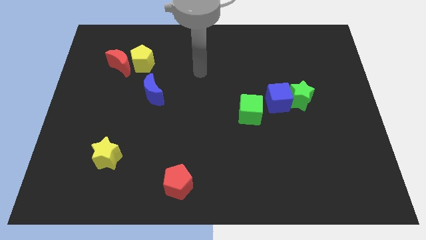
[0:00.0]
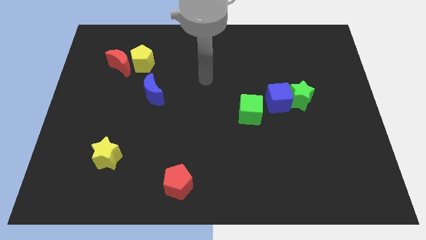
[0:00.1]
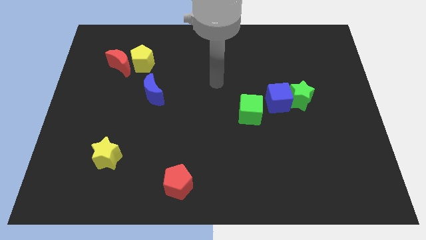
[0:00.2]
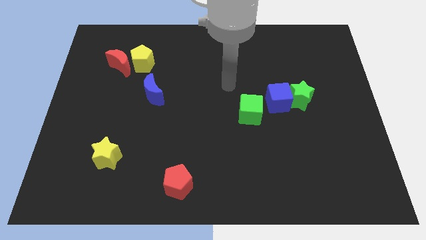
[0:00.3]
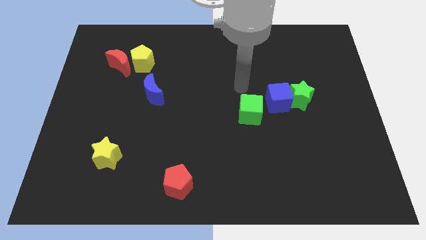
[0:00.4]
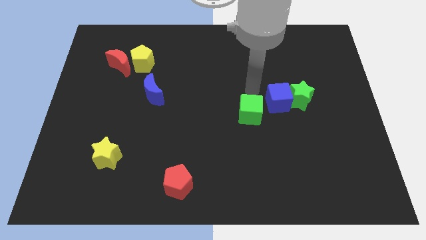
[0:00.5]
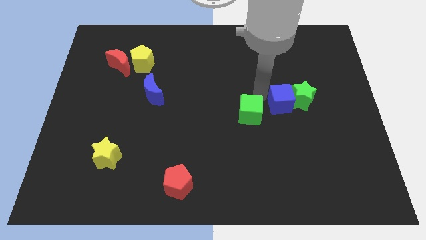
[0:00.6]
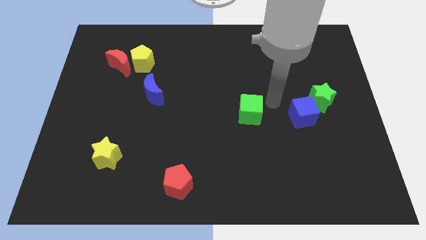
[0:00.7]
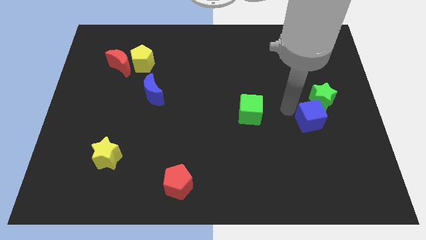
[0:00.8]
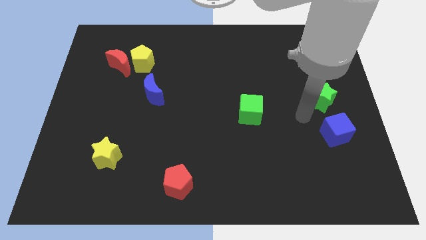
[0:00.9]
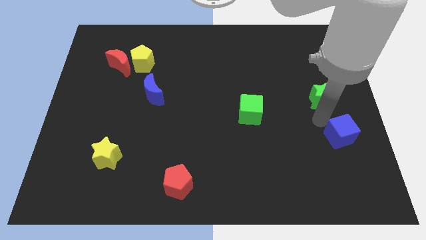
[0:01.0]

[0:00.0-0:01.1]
move the green star away from the blue cube

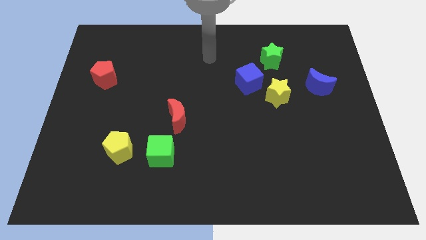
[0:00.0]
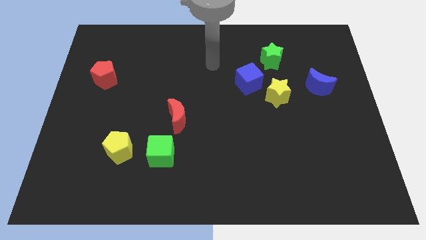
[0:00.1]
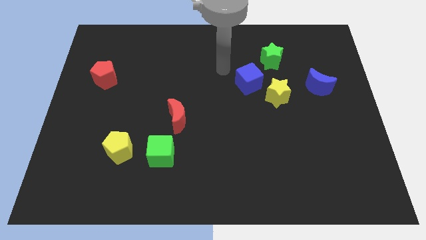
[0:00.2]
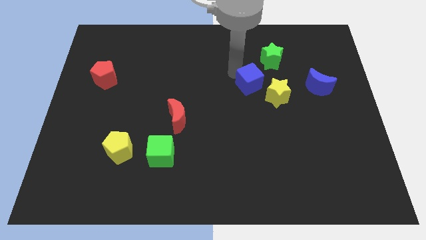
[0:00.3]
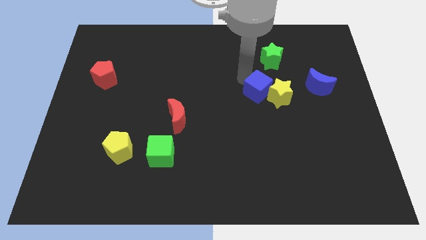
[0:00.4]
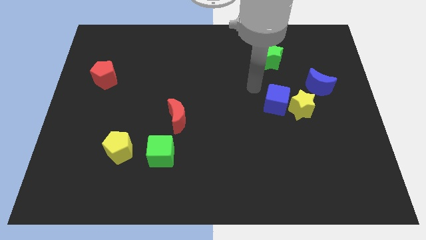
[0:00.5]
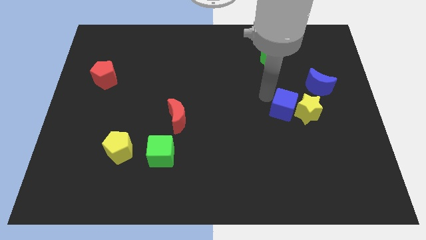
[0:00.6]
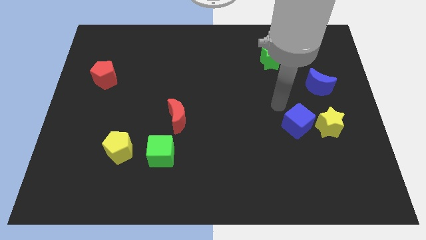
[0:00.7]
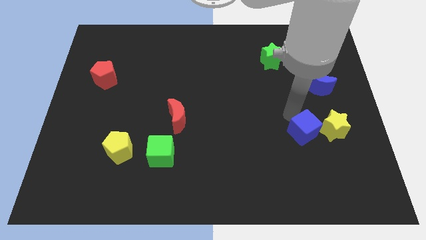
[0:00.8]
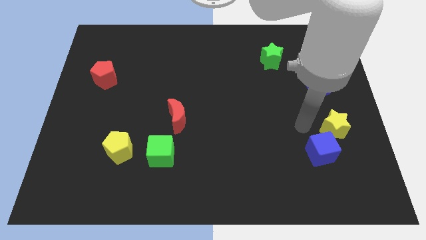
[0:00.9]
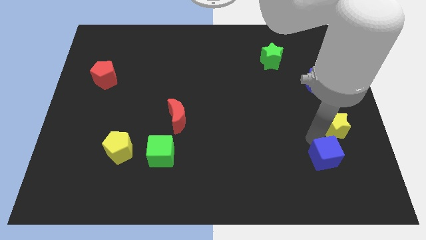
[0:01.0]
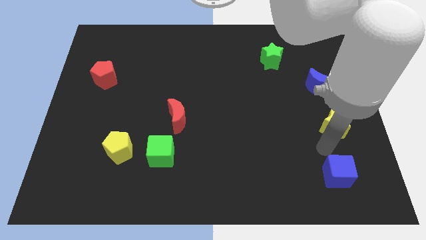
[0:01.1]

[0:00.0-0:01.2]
move the yellow star away from the blue cube

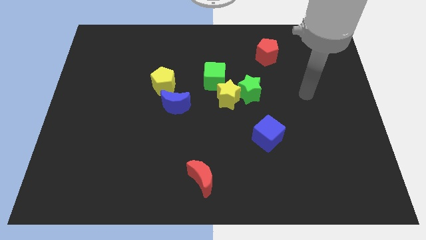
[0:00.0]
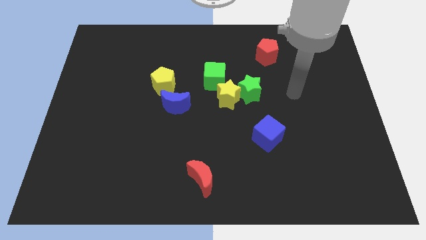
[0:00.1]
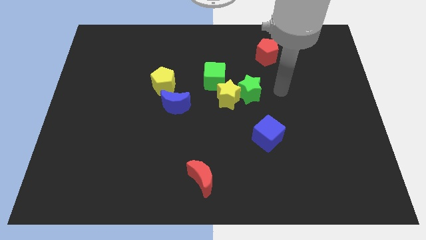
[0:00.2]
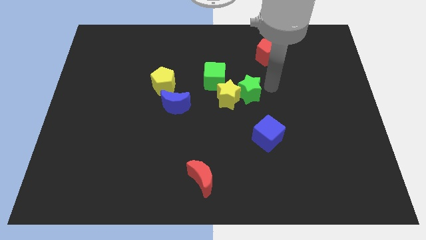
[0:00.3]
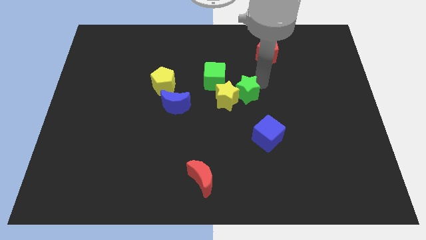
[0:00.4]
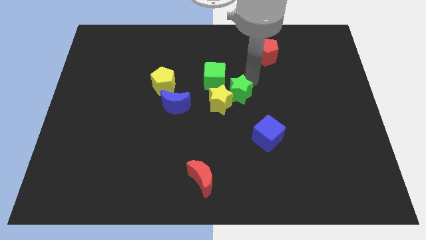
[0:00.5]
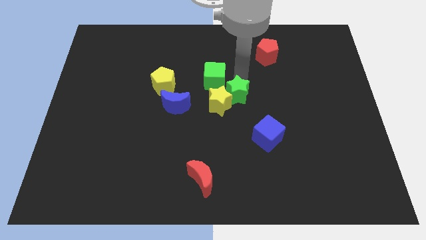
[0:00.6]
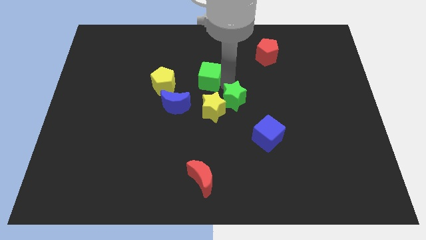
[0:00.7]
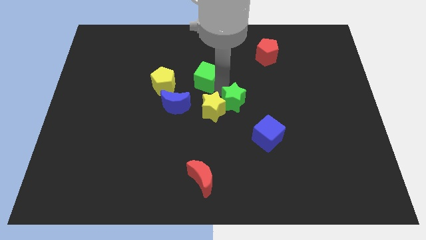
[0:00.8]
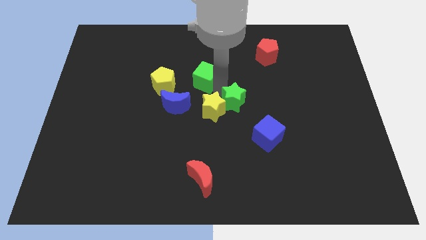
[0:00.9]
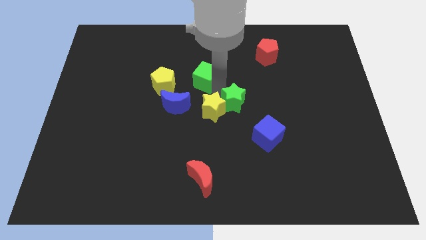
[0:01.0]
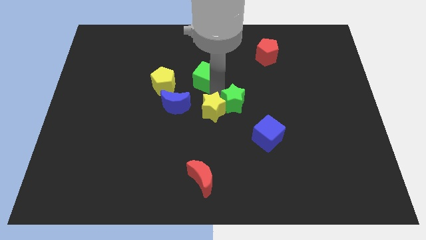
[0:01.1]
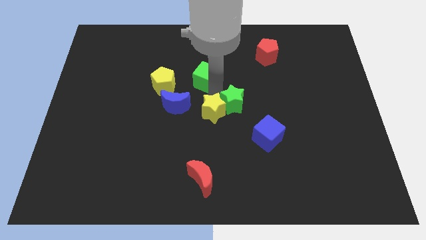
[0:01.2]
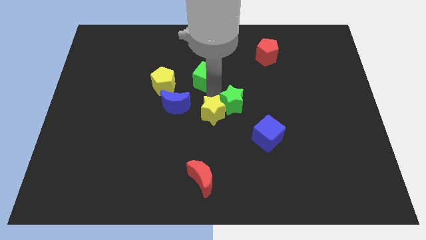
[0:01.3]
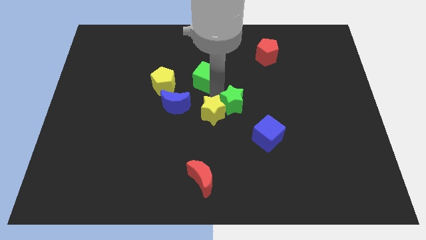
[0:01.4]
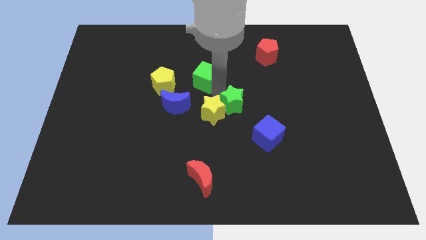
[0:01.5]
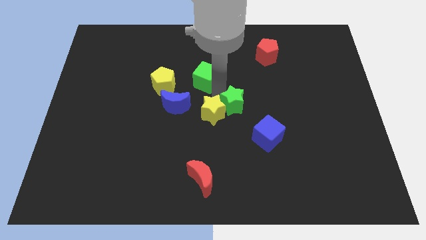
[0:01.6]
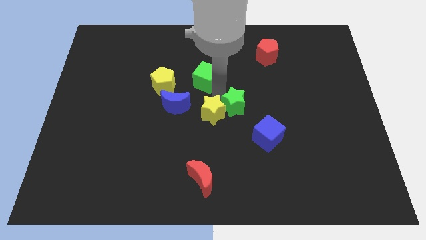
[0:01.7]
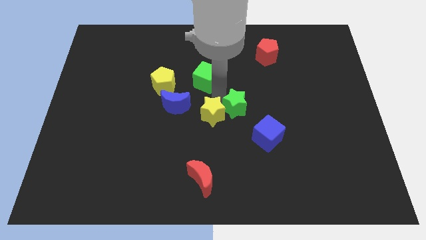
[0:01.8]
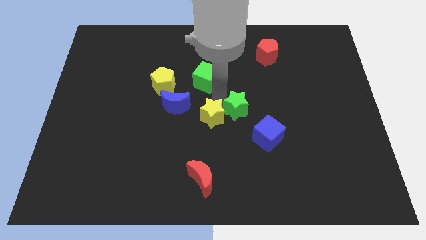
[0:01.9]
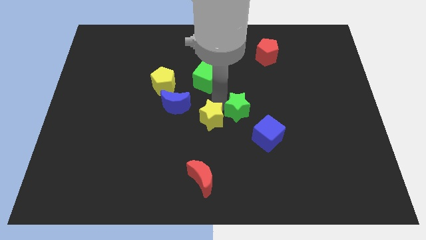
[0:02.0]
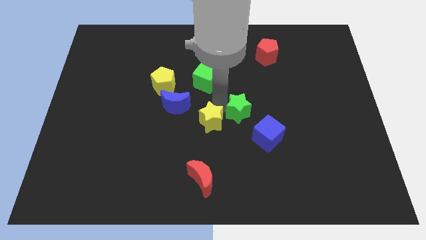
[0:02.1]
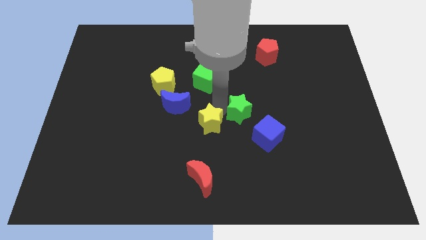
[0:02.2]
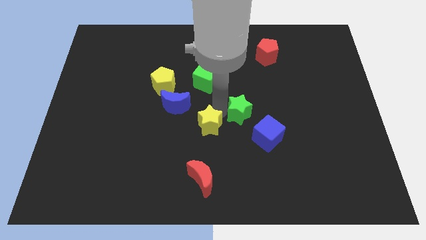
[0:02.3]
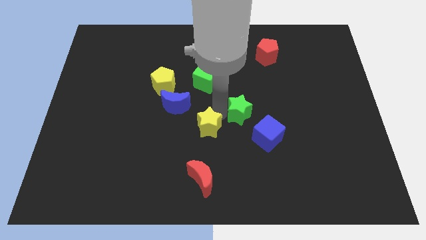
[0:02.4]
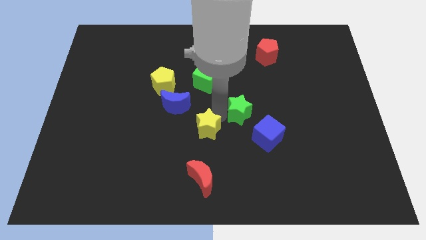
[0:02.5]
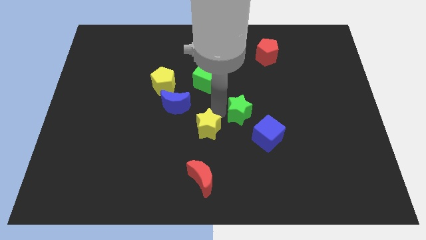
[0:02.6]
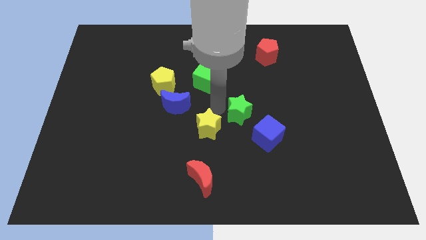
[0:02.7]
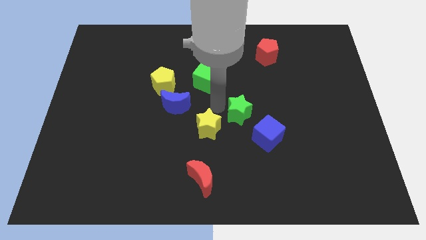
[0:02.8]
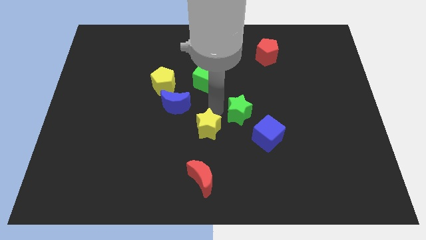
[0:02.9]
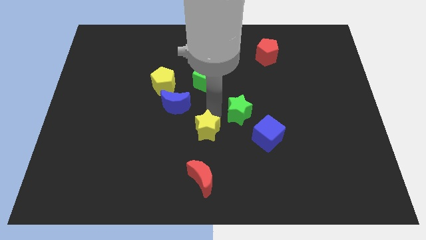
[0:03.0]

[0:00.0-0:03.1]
pull the yellow star apart from the green star and green cube

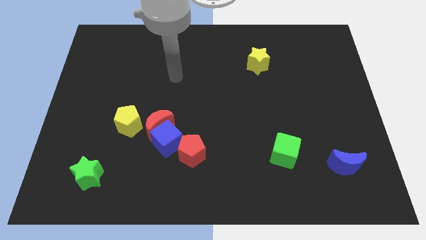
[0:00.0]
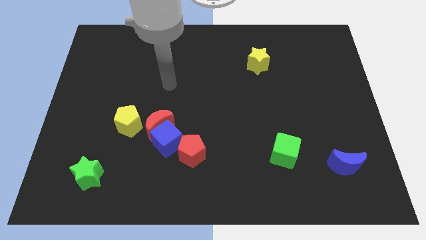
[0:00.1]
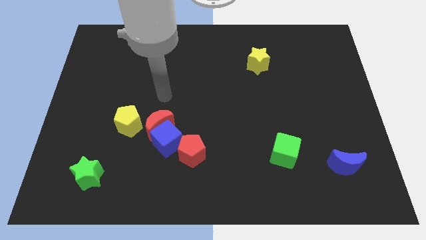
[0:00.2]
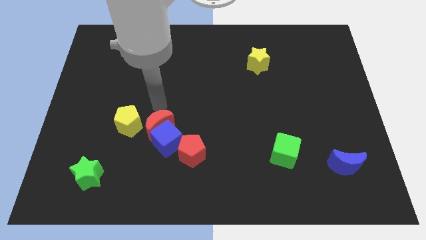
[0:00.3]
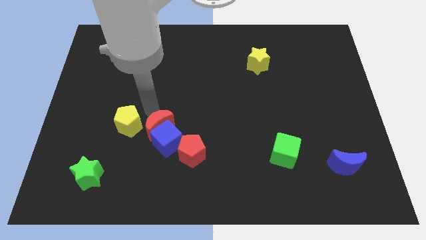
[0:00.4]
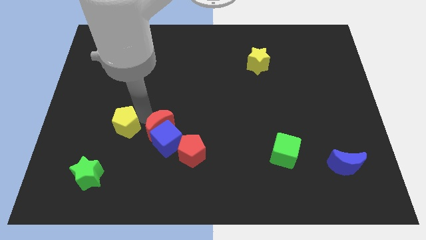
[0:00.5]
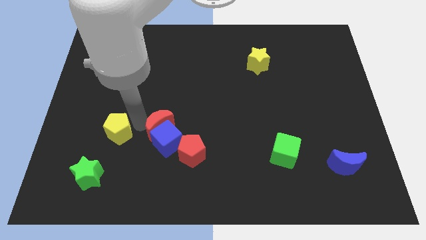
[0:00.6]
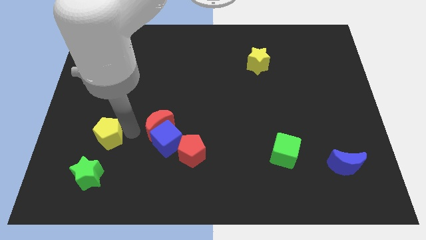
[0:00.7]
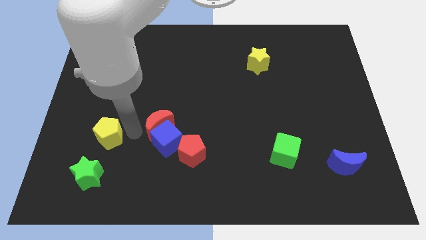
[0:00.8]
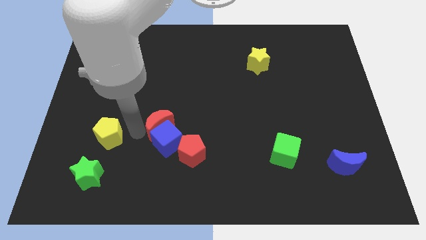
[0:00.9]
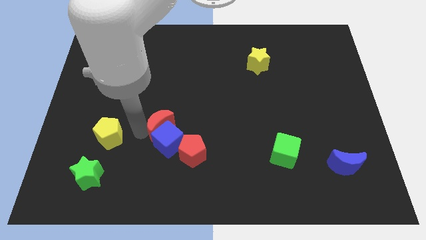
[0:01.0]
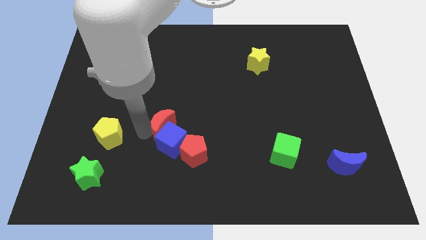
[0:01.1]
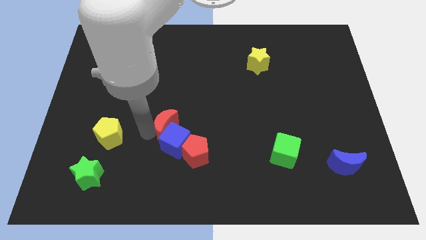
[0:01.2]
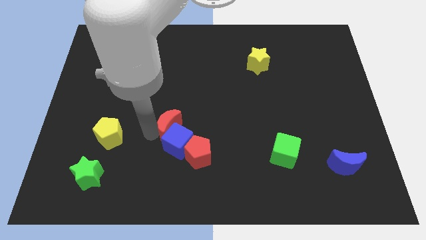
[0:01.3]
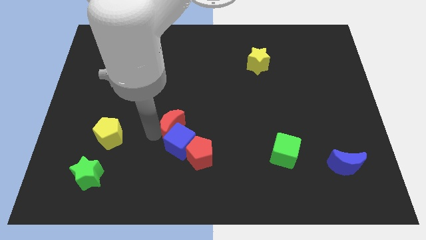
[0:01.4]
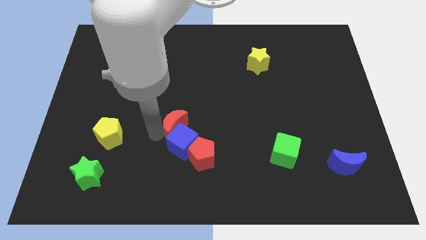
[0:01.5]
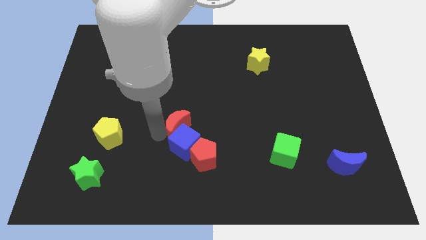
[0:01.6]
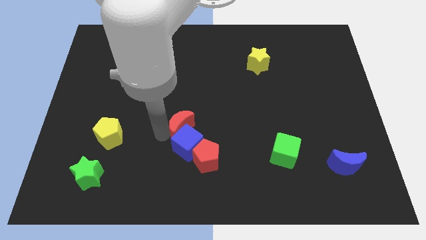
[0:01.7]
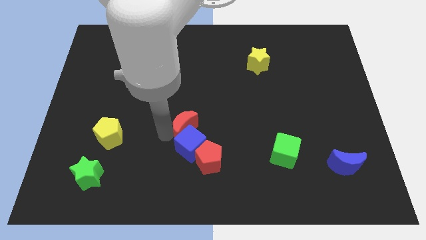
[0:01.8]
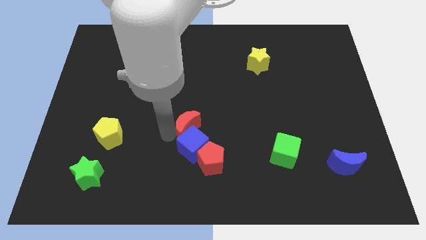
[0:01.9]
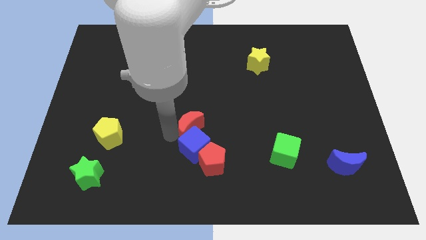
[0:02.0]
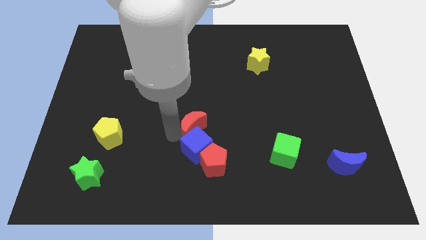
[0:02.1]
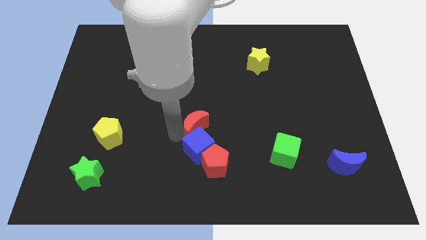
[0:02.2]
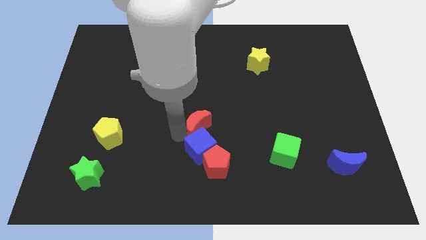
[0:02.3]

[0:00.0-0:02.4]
move the red moon away from the blue cube and yellow pentagon

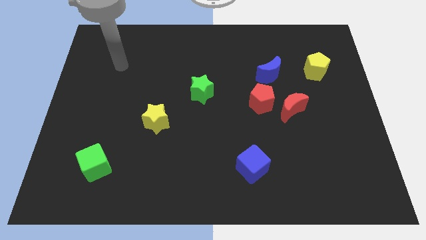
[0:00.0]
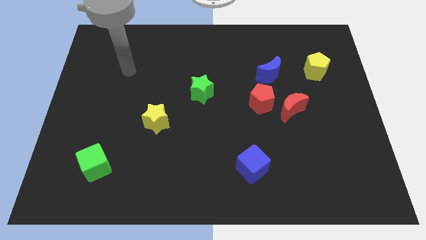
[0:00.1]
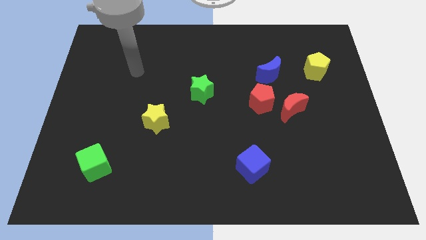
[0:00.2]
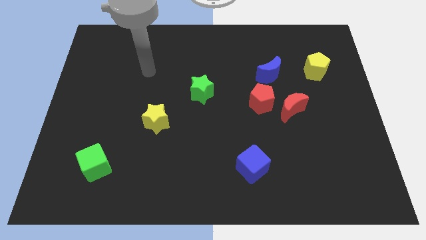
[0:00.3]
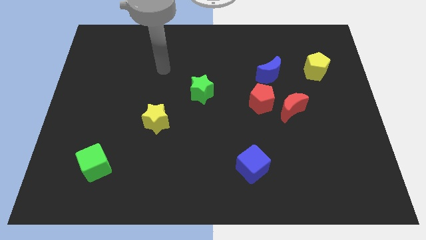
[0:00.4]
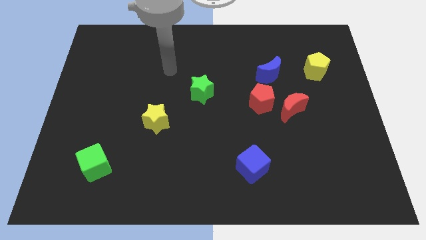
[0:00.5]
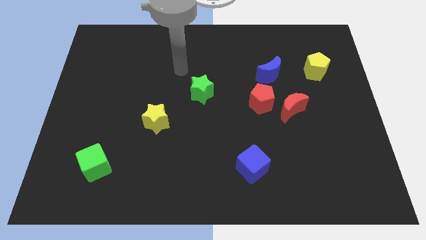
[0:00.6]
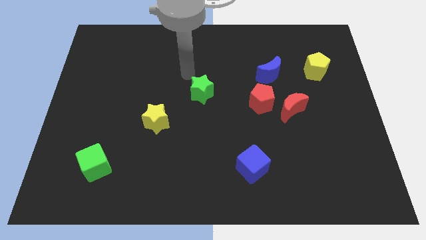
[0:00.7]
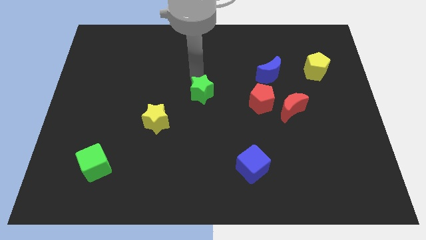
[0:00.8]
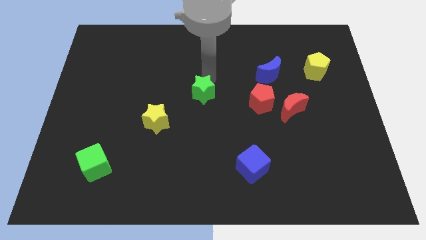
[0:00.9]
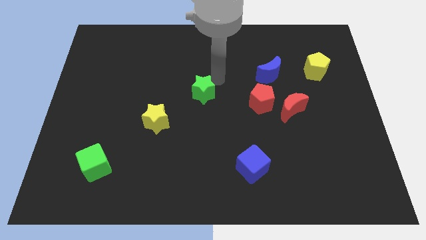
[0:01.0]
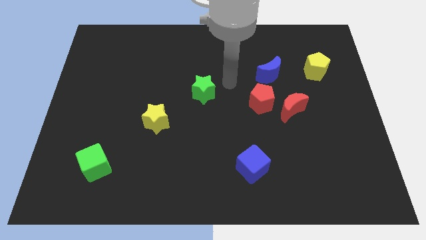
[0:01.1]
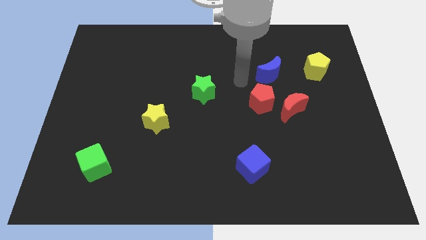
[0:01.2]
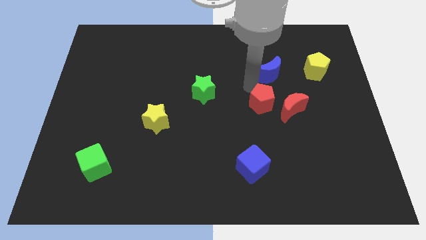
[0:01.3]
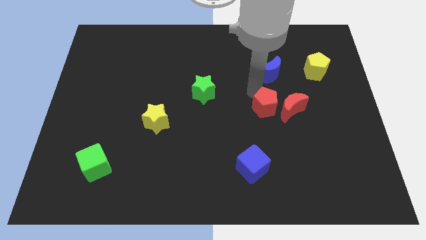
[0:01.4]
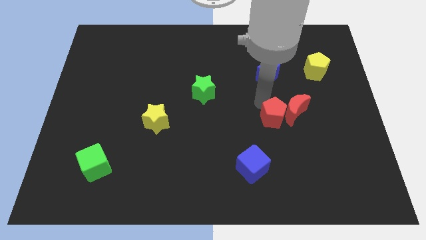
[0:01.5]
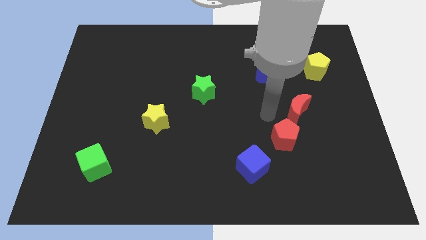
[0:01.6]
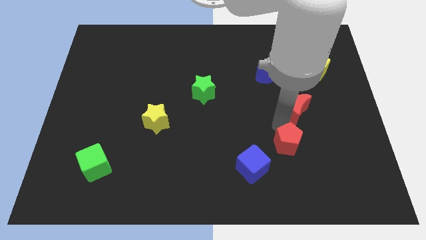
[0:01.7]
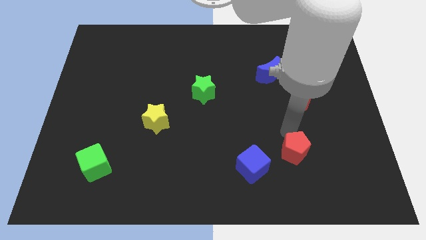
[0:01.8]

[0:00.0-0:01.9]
pull the red moon apart from the red pentagon
